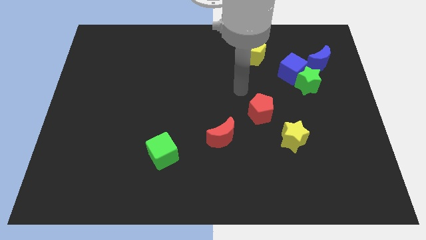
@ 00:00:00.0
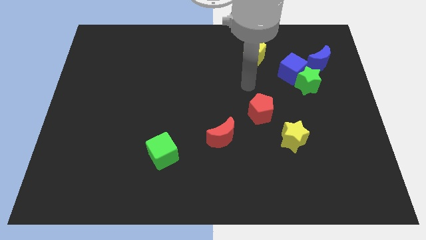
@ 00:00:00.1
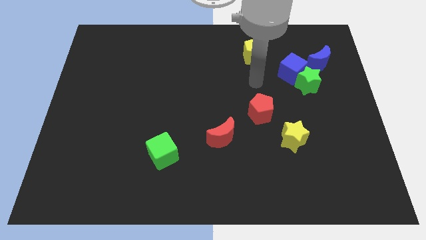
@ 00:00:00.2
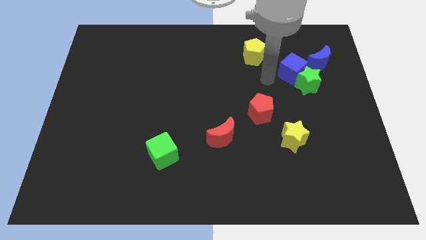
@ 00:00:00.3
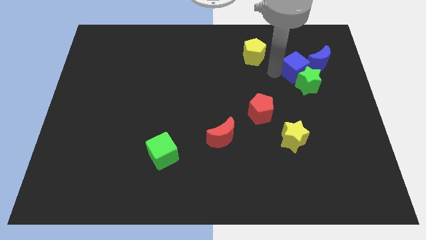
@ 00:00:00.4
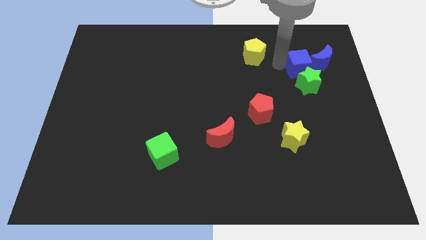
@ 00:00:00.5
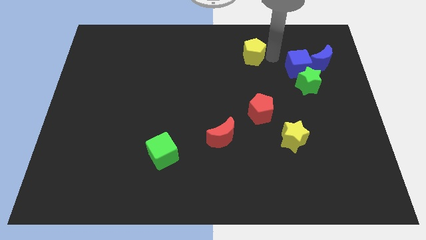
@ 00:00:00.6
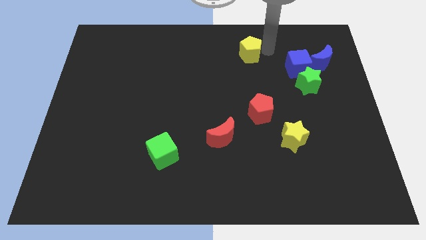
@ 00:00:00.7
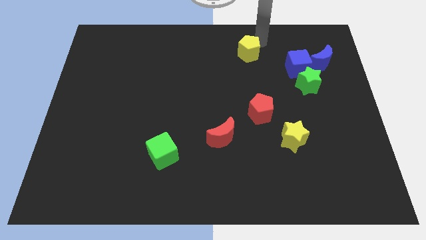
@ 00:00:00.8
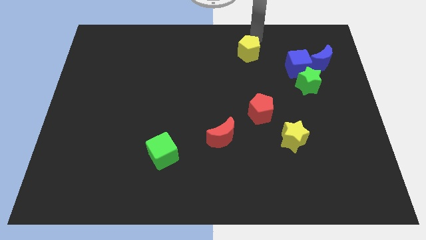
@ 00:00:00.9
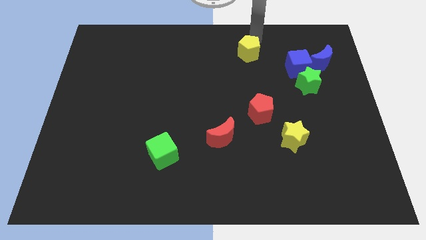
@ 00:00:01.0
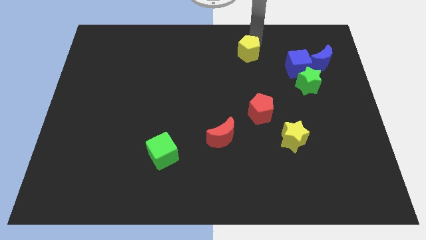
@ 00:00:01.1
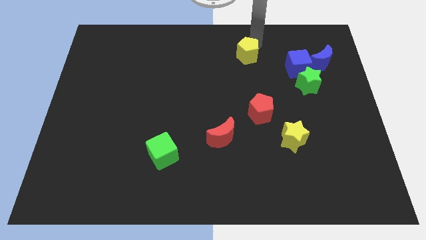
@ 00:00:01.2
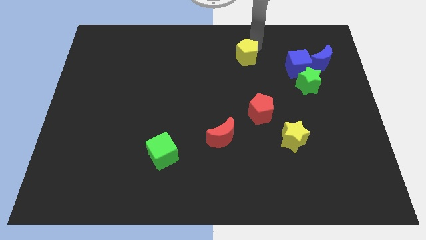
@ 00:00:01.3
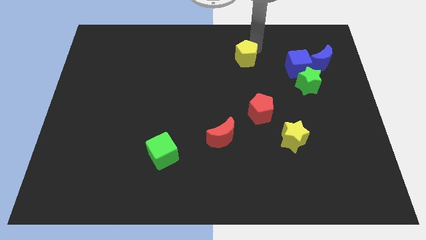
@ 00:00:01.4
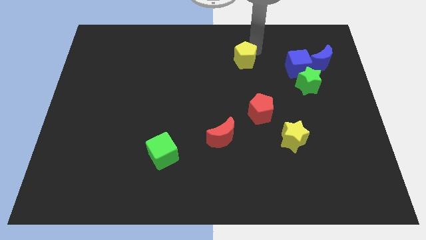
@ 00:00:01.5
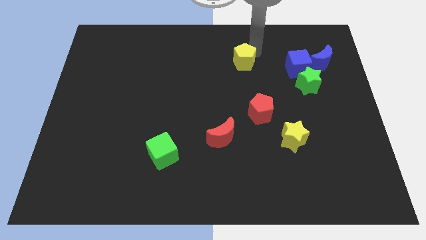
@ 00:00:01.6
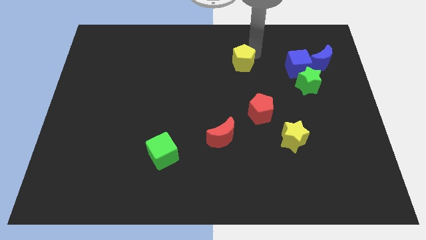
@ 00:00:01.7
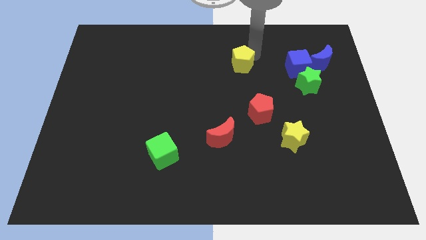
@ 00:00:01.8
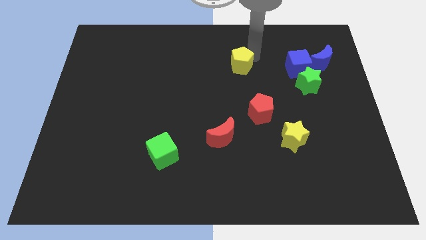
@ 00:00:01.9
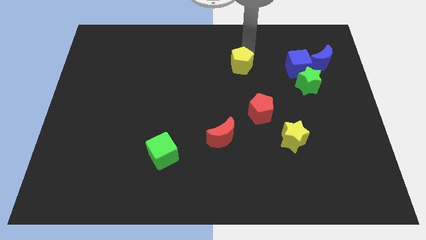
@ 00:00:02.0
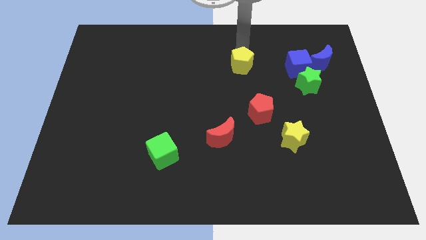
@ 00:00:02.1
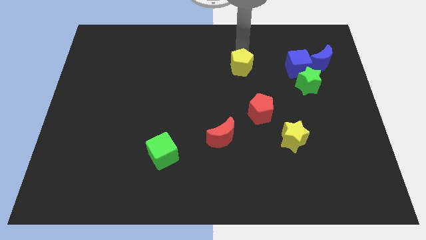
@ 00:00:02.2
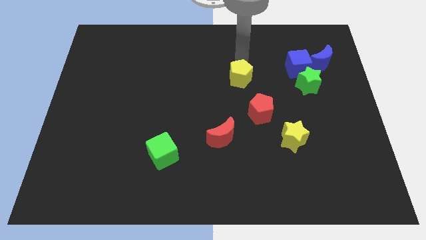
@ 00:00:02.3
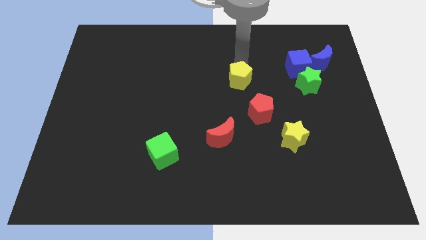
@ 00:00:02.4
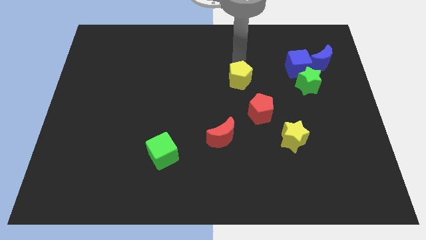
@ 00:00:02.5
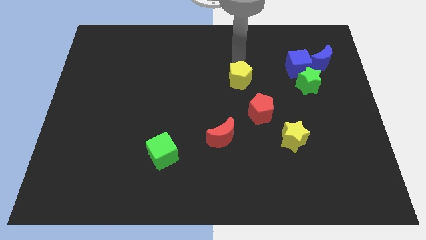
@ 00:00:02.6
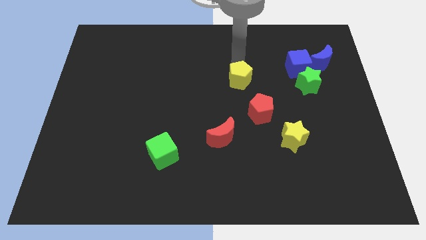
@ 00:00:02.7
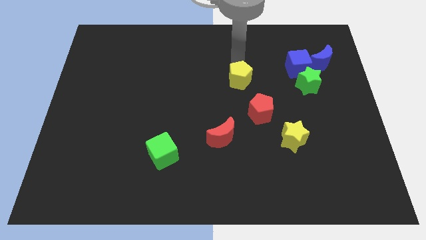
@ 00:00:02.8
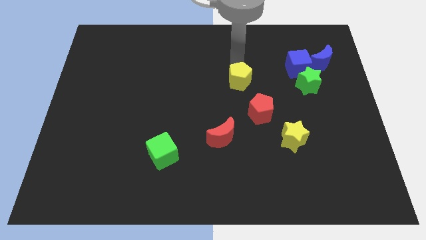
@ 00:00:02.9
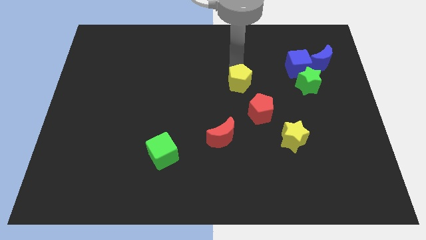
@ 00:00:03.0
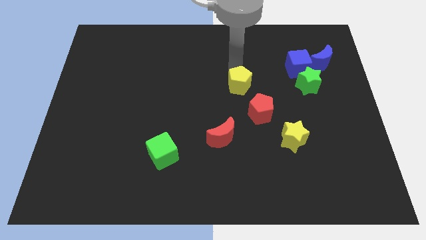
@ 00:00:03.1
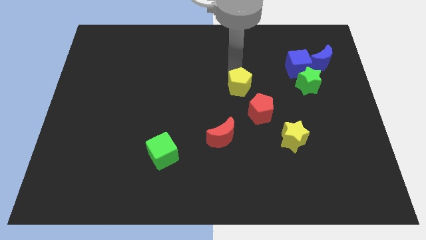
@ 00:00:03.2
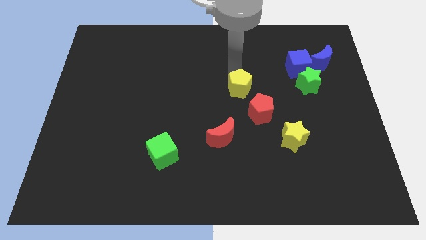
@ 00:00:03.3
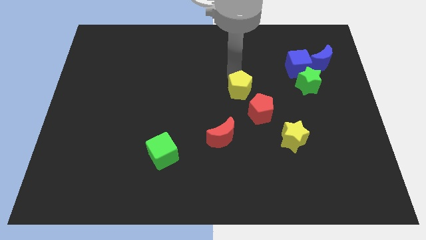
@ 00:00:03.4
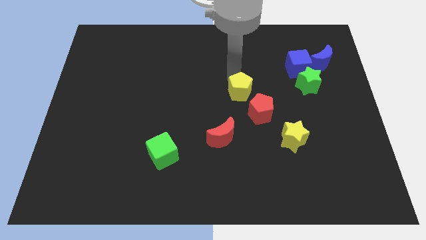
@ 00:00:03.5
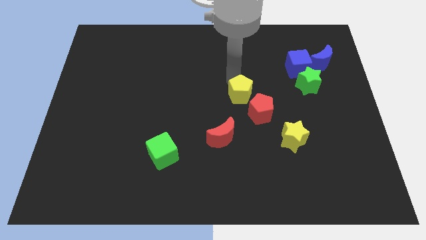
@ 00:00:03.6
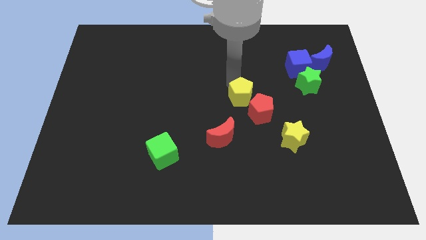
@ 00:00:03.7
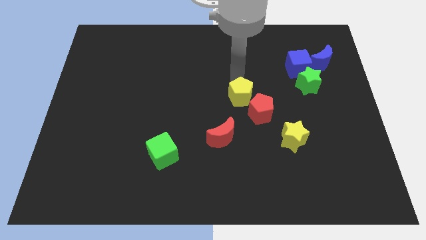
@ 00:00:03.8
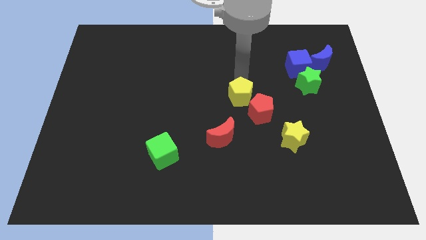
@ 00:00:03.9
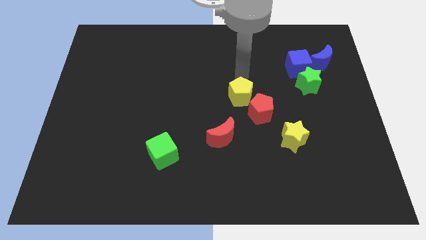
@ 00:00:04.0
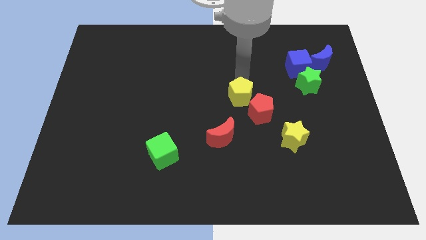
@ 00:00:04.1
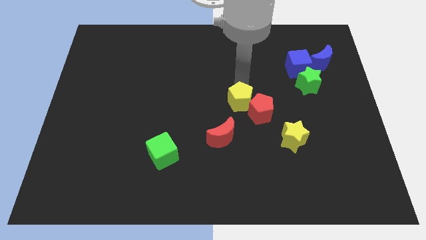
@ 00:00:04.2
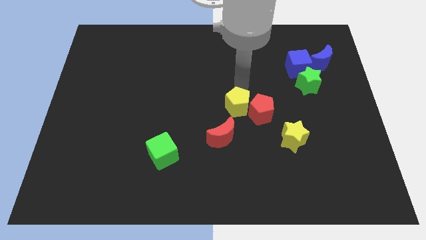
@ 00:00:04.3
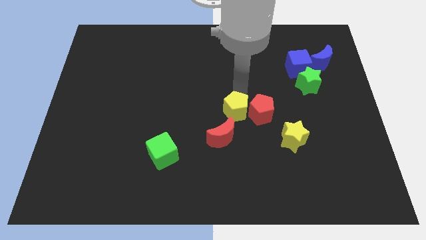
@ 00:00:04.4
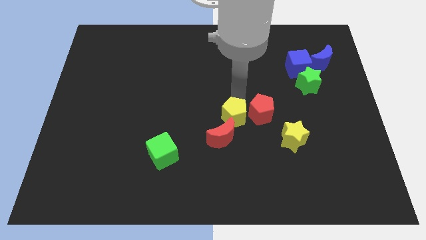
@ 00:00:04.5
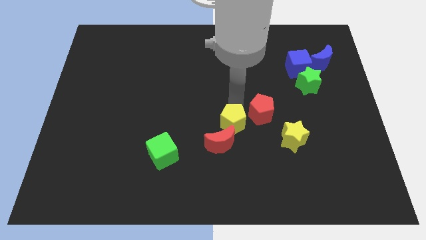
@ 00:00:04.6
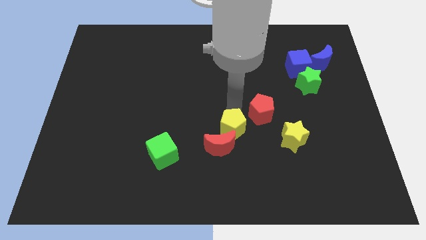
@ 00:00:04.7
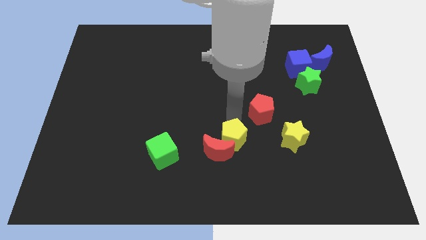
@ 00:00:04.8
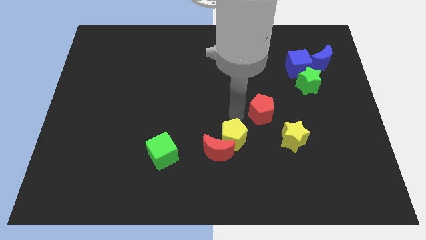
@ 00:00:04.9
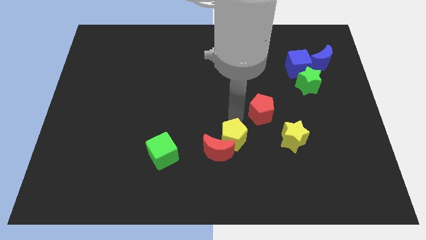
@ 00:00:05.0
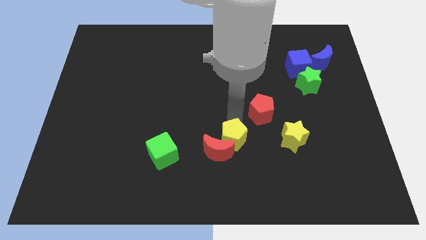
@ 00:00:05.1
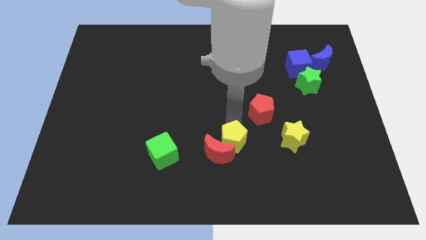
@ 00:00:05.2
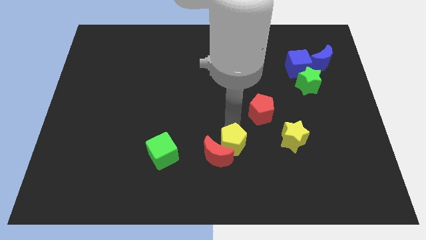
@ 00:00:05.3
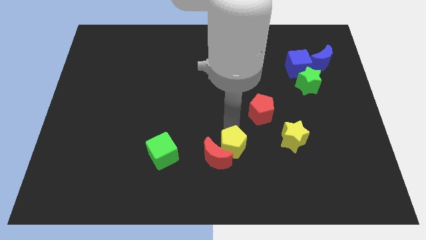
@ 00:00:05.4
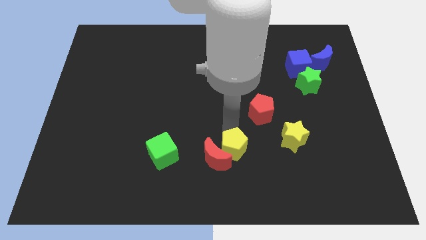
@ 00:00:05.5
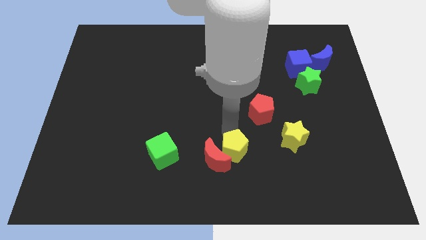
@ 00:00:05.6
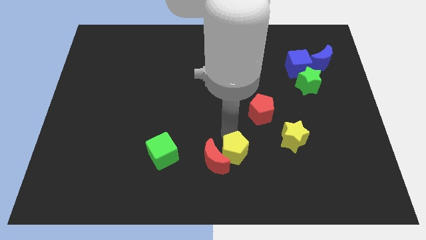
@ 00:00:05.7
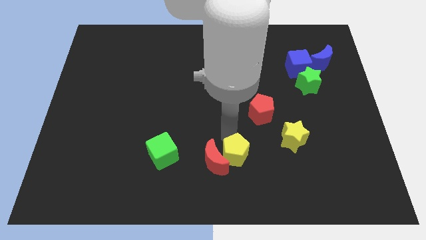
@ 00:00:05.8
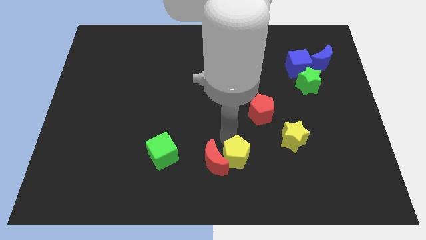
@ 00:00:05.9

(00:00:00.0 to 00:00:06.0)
put the yellow pentagon to the bottom side

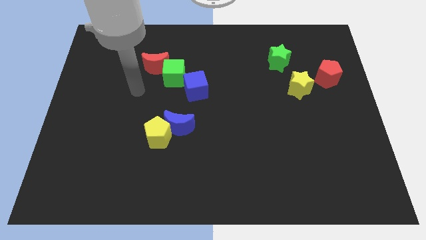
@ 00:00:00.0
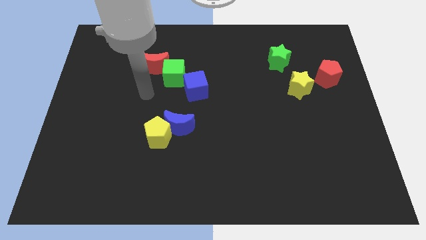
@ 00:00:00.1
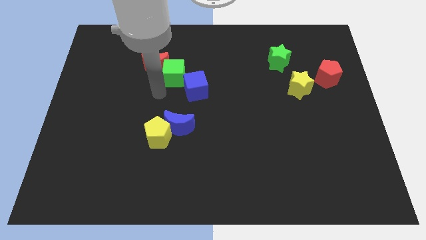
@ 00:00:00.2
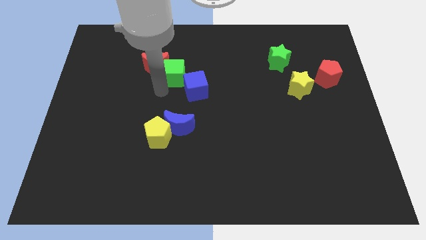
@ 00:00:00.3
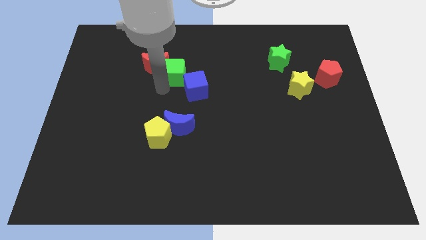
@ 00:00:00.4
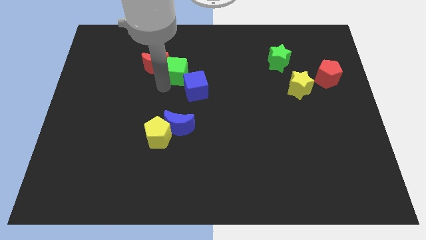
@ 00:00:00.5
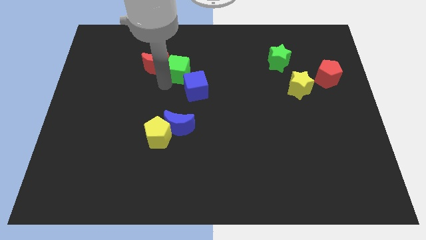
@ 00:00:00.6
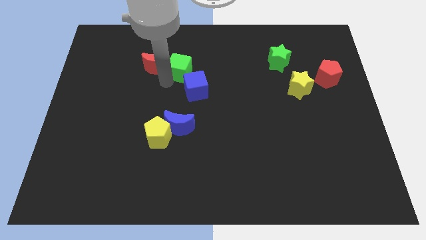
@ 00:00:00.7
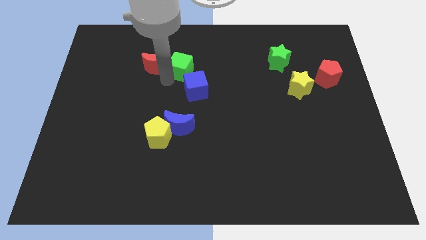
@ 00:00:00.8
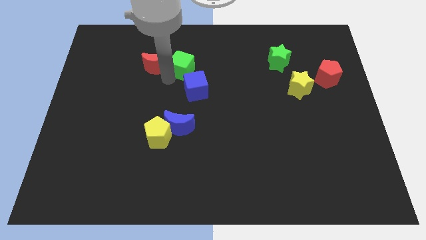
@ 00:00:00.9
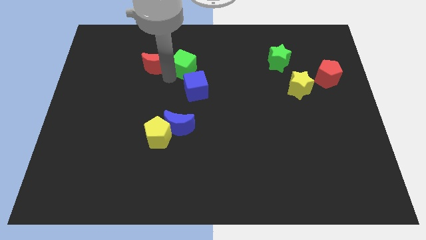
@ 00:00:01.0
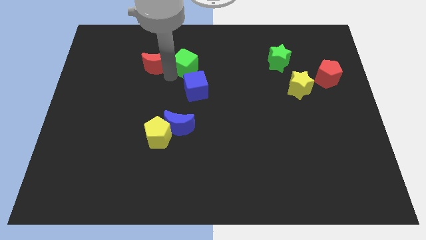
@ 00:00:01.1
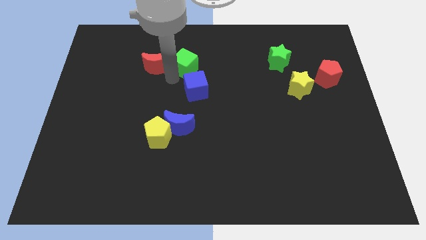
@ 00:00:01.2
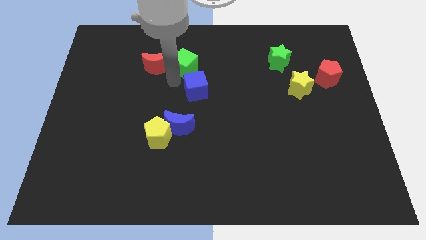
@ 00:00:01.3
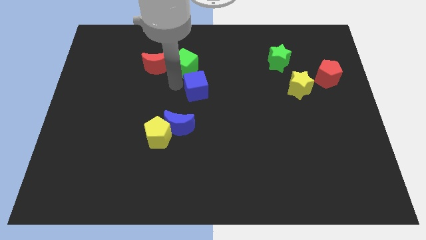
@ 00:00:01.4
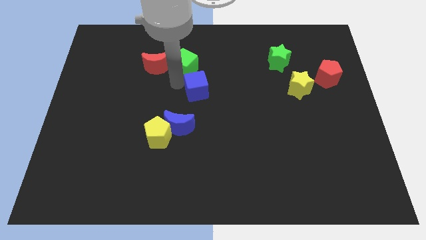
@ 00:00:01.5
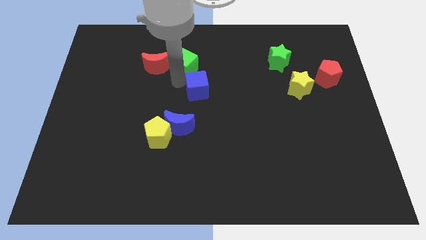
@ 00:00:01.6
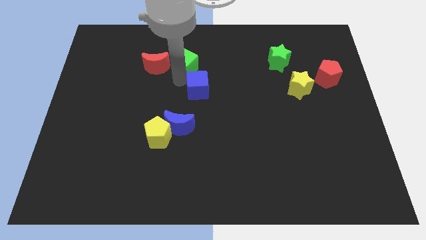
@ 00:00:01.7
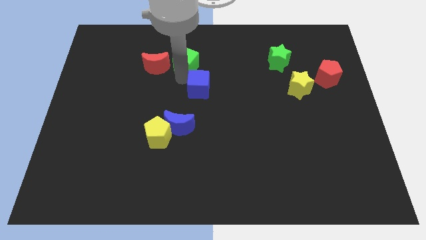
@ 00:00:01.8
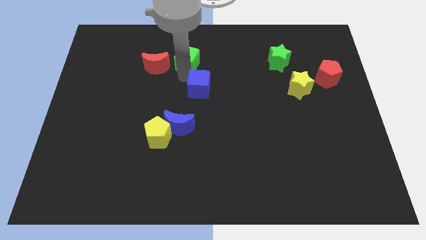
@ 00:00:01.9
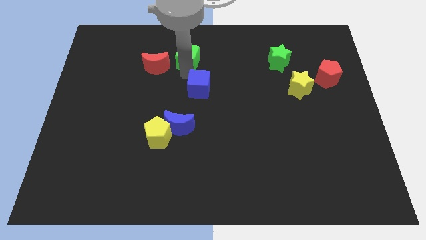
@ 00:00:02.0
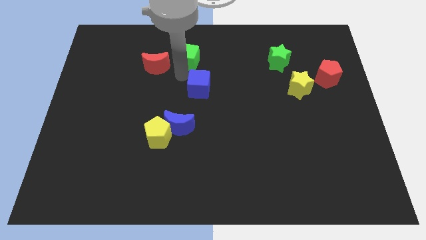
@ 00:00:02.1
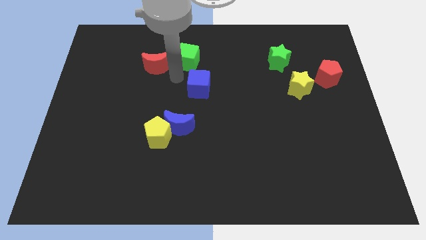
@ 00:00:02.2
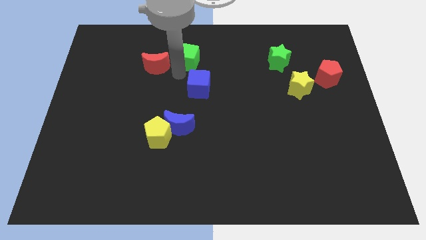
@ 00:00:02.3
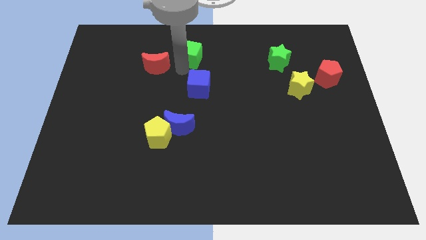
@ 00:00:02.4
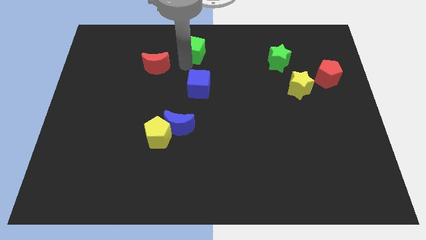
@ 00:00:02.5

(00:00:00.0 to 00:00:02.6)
move the green cube to the top
